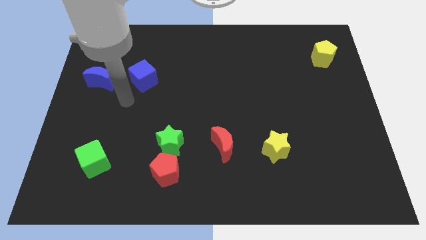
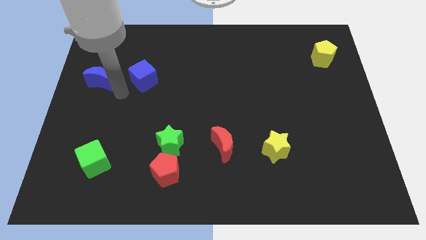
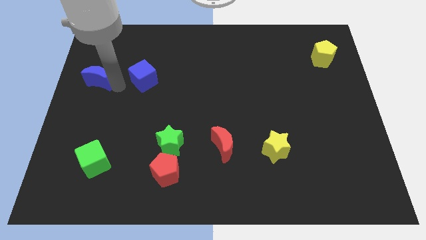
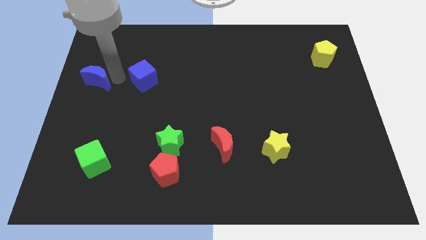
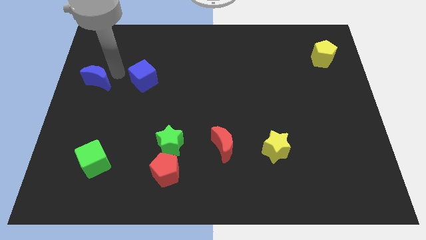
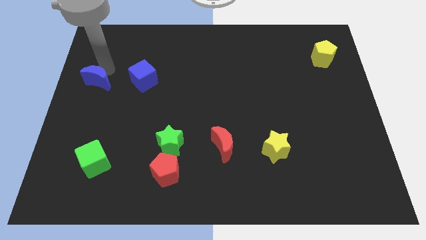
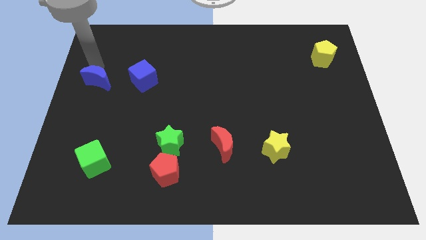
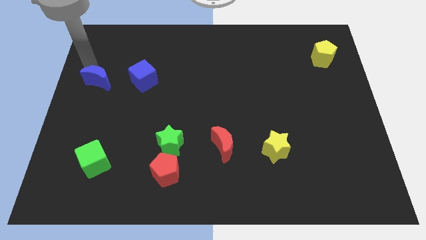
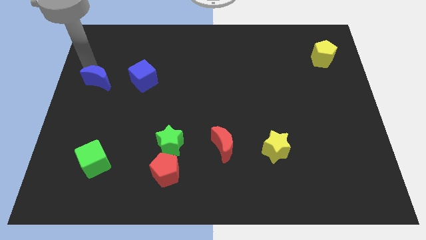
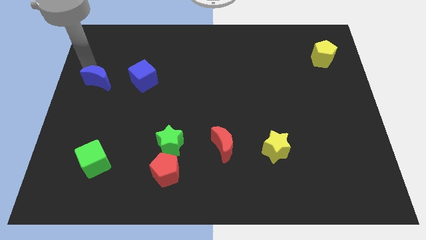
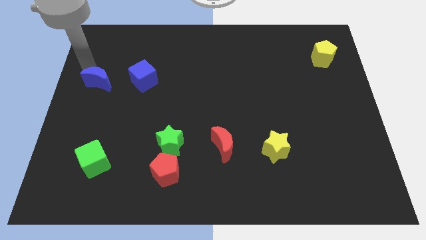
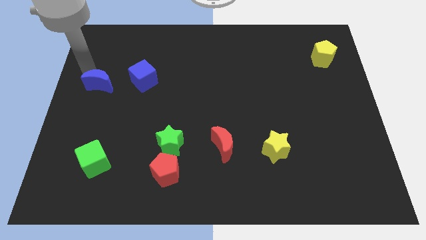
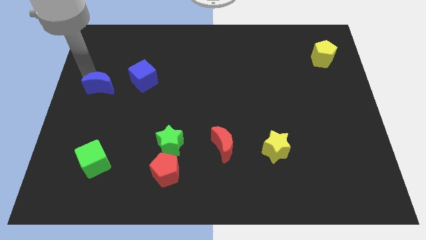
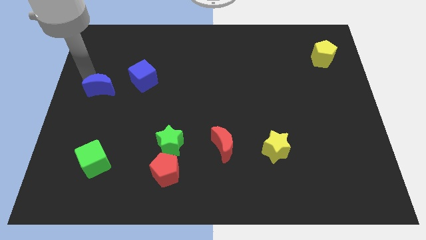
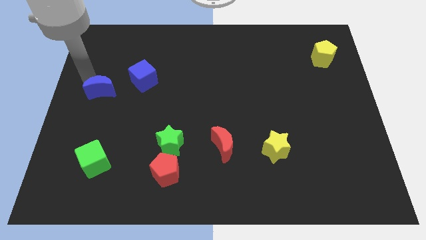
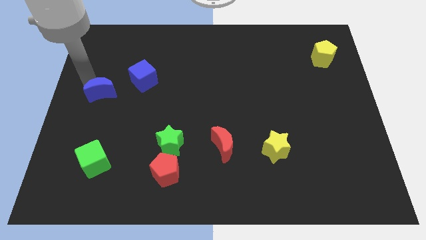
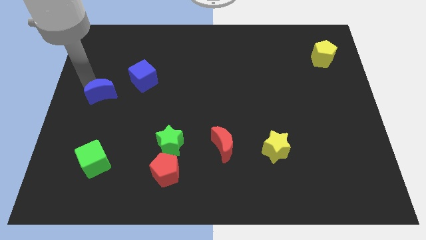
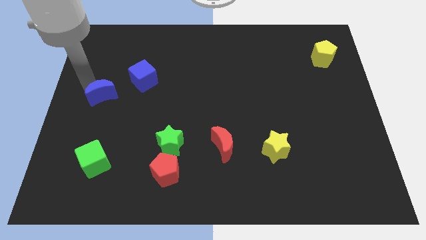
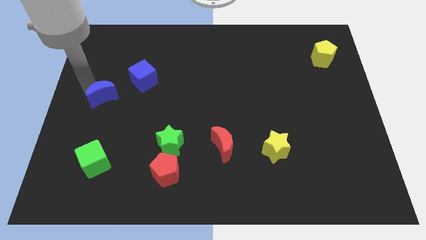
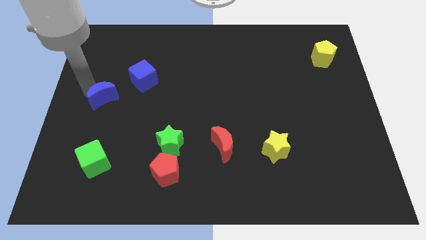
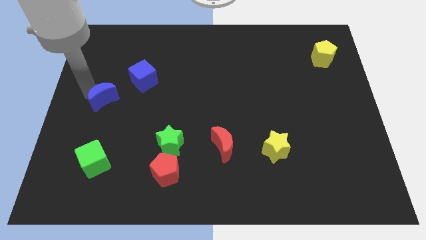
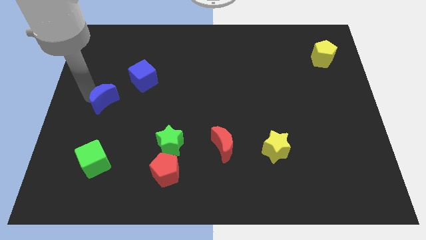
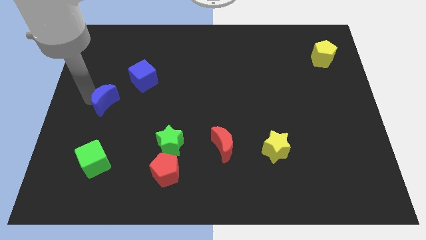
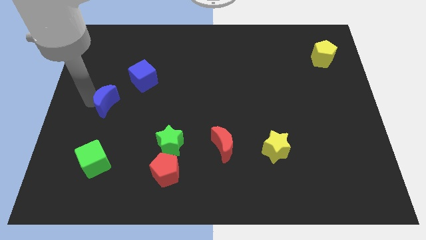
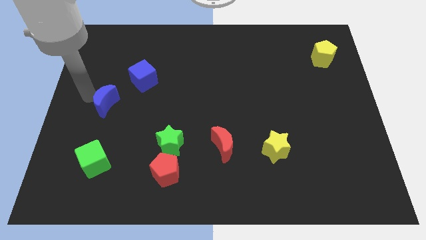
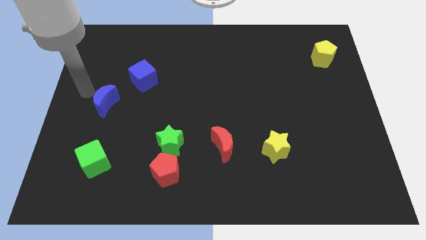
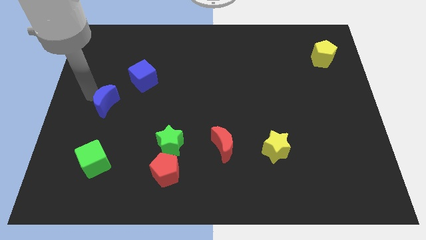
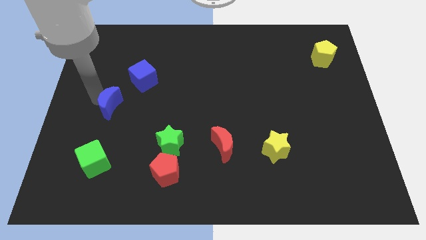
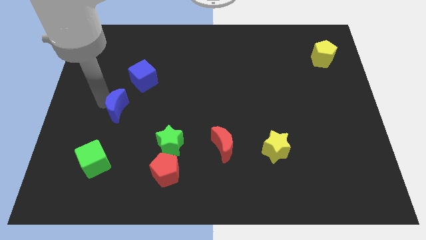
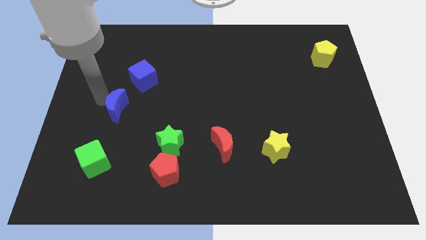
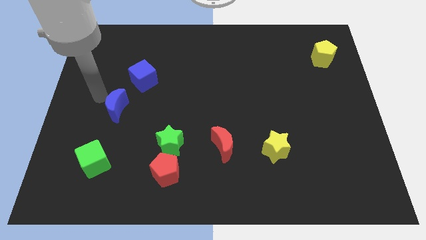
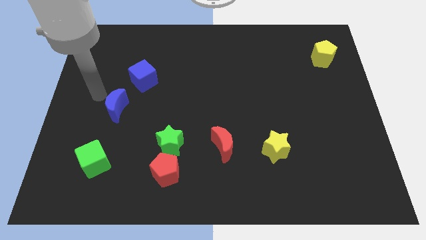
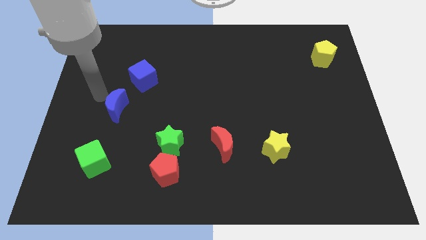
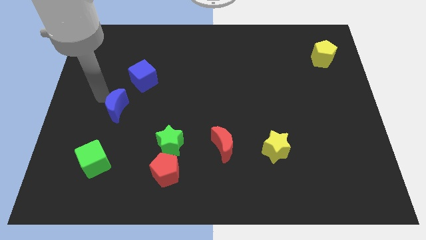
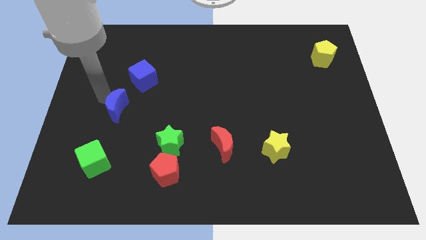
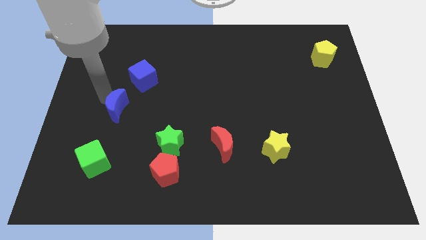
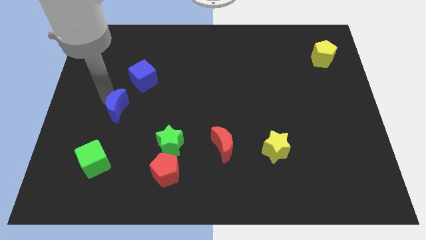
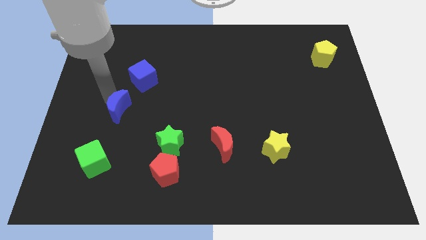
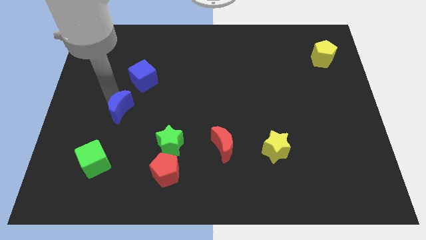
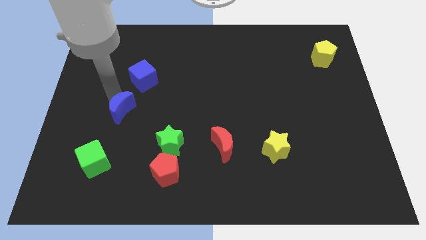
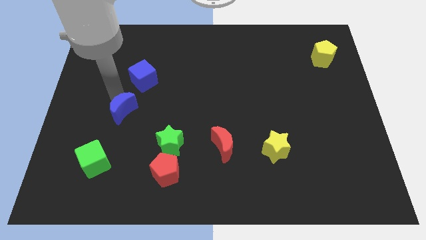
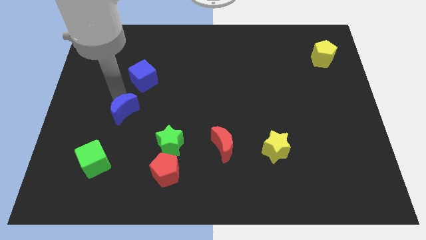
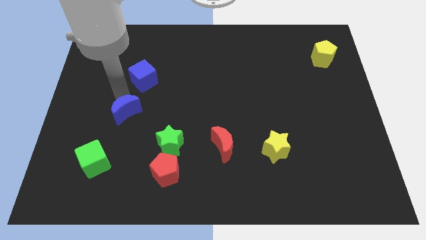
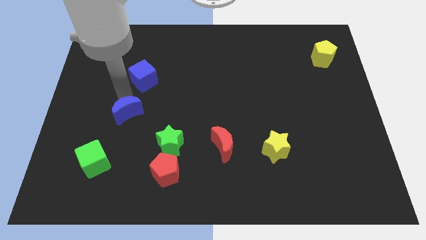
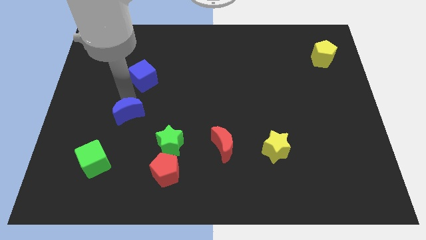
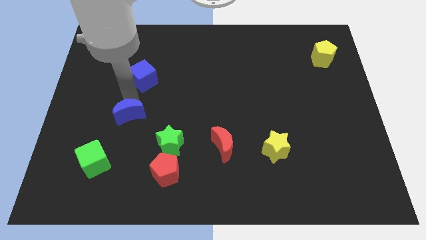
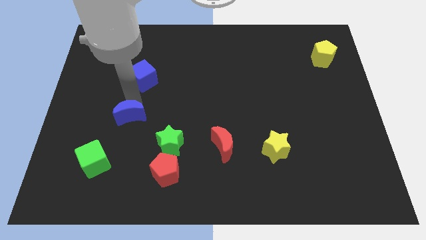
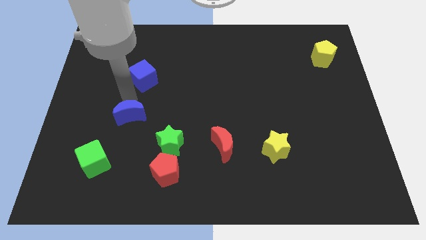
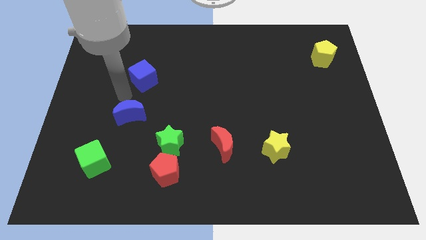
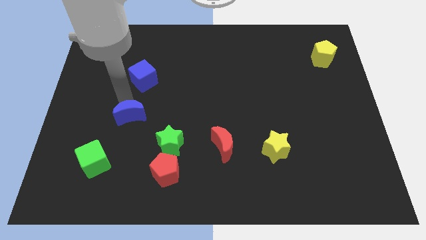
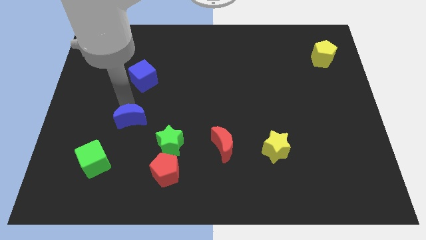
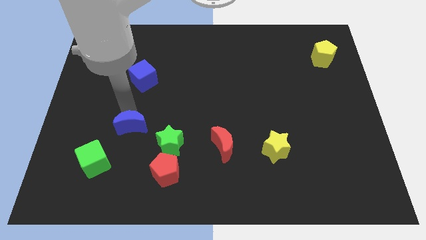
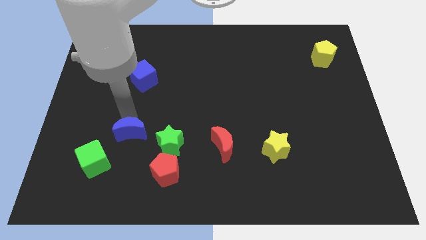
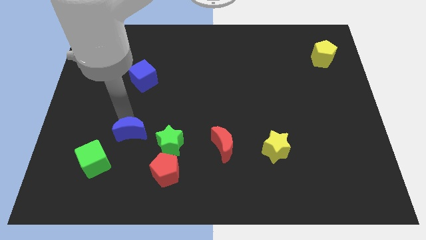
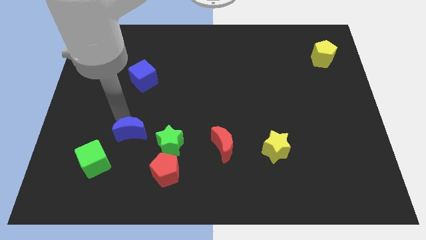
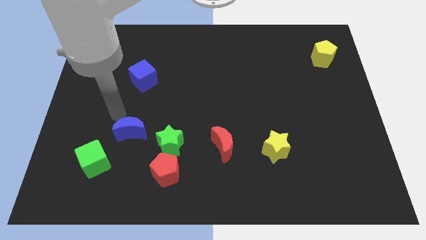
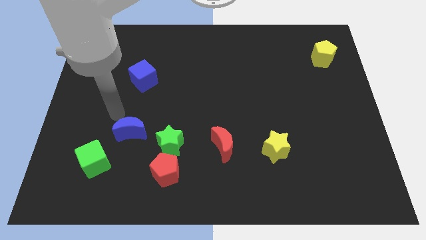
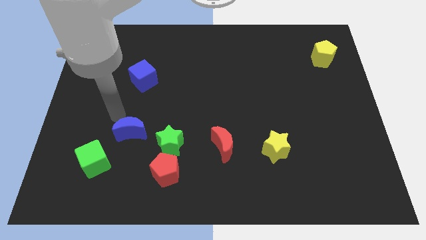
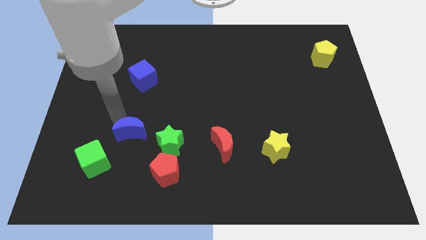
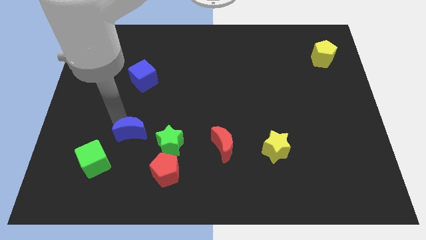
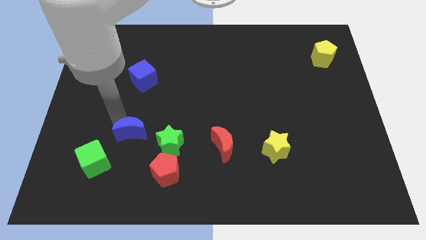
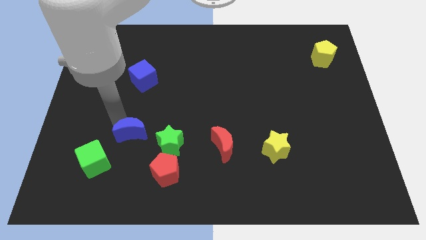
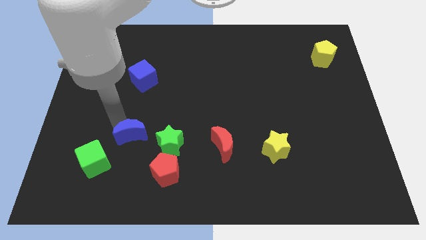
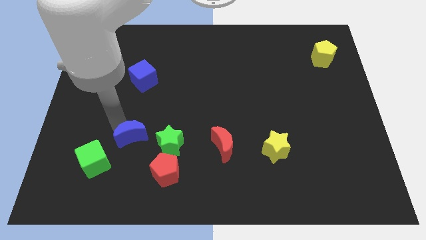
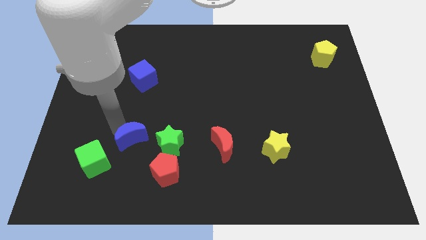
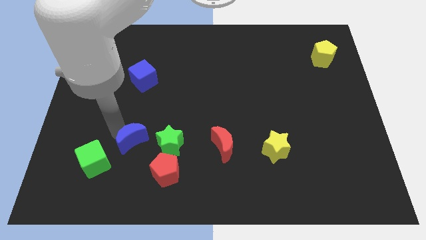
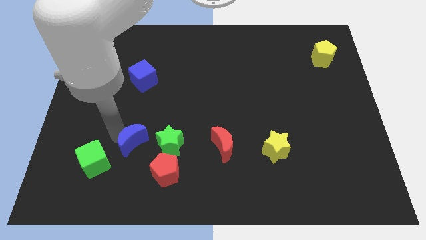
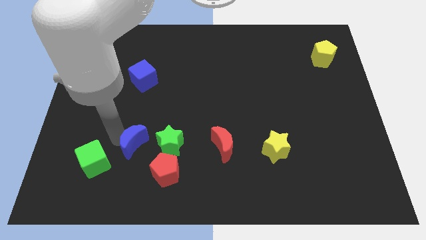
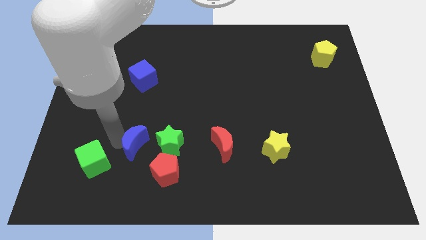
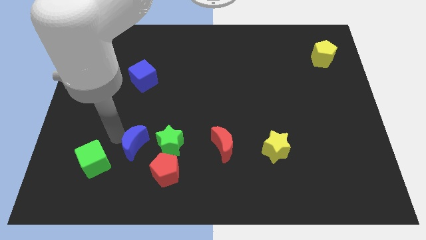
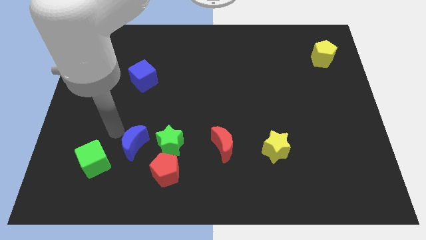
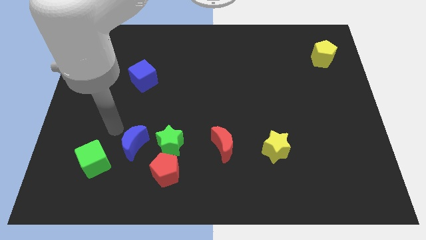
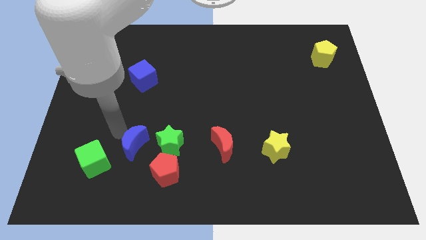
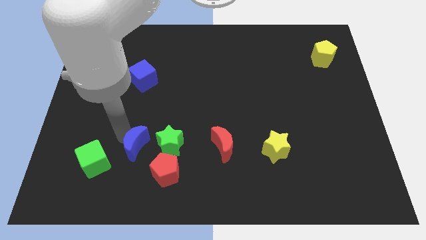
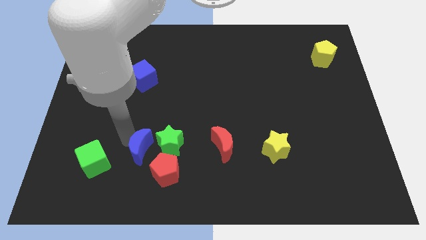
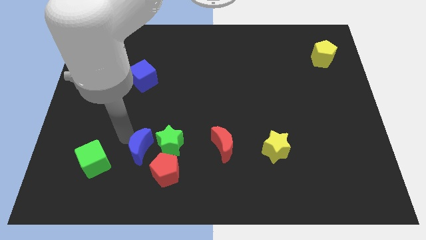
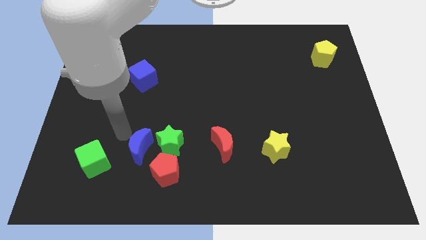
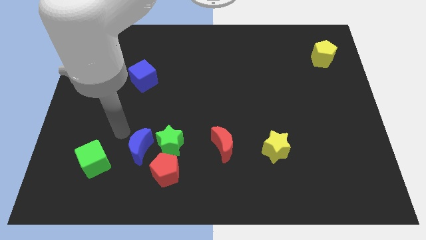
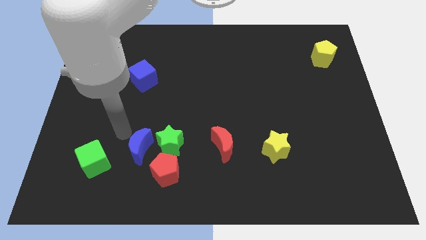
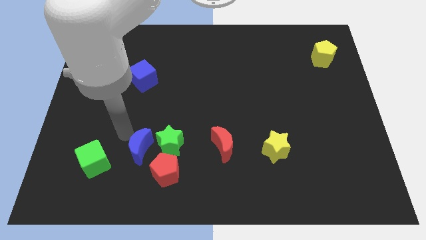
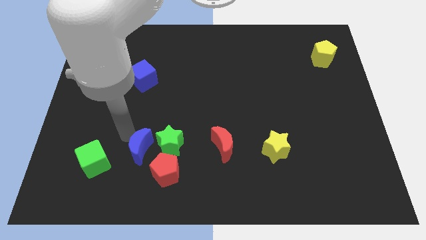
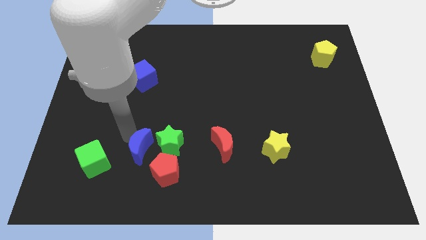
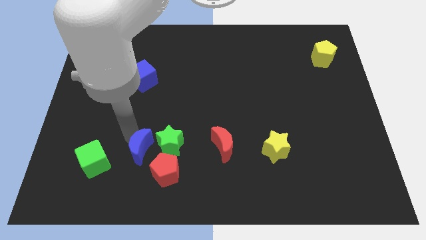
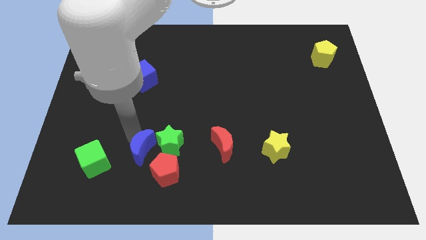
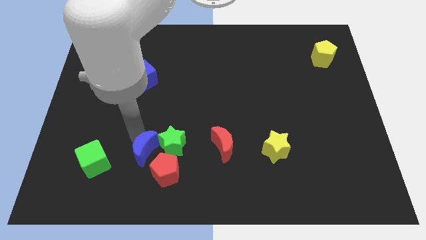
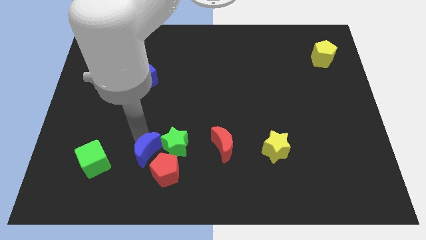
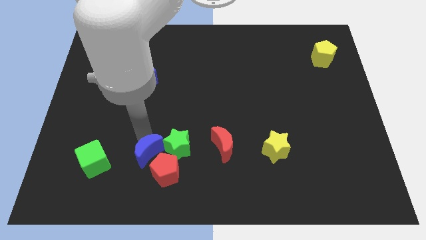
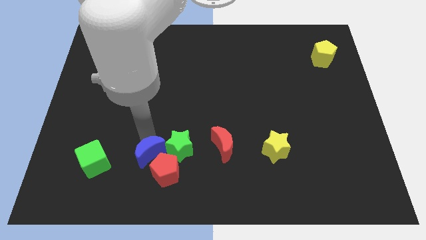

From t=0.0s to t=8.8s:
push the blue moon next to the red pentagon
